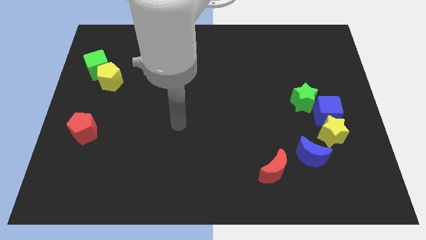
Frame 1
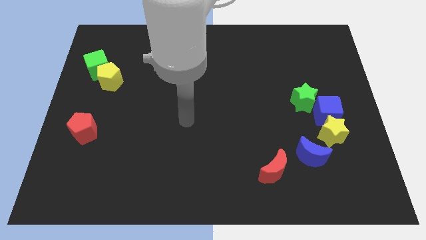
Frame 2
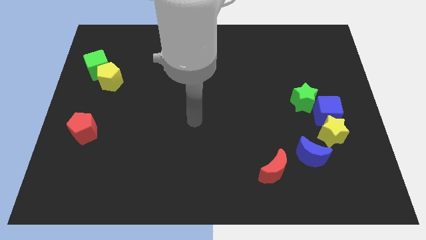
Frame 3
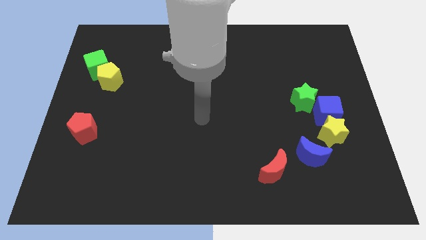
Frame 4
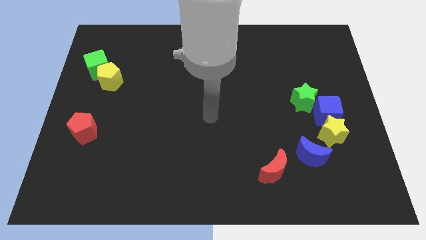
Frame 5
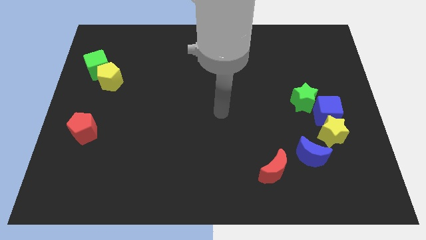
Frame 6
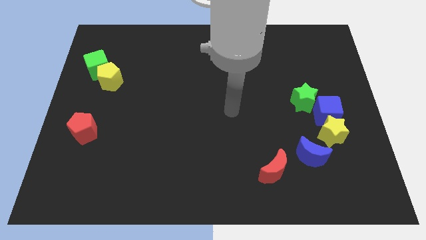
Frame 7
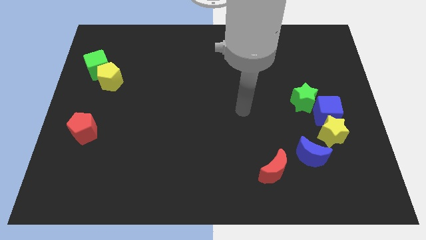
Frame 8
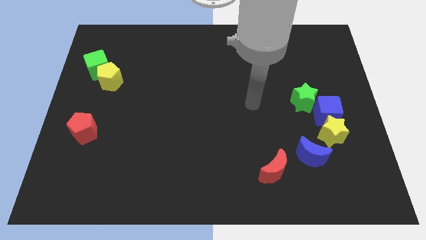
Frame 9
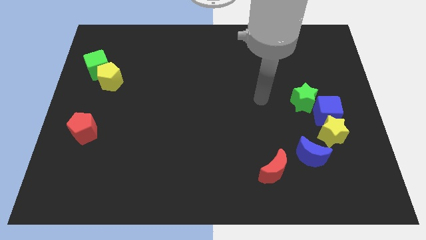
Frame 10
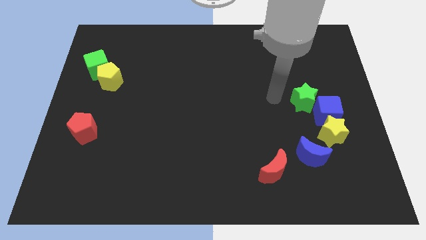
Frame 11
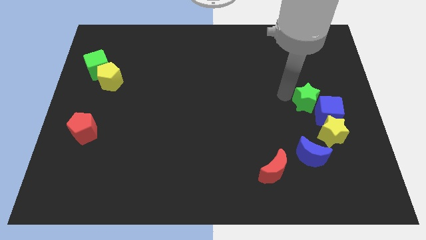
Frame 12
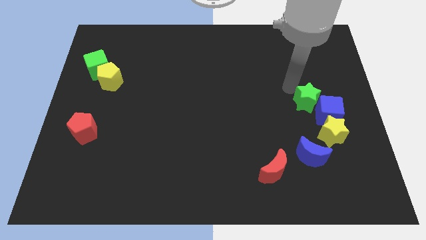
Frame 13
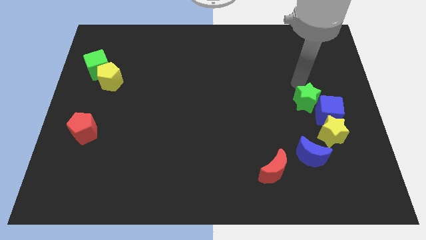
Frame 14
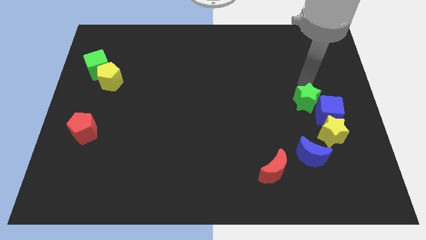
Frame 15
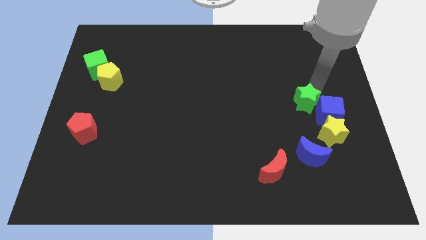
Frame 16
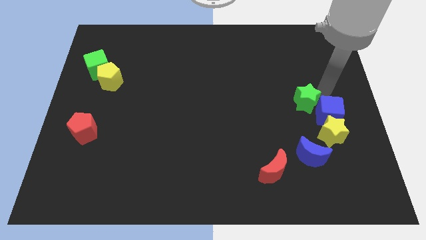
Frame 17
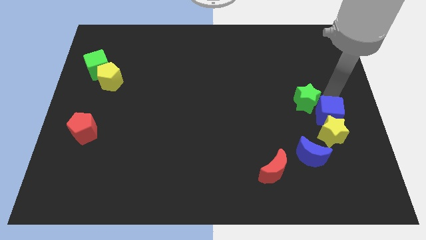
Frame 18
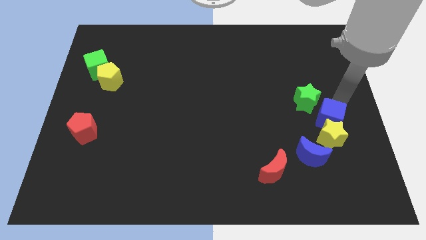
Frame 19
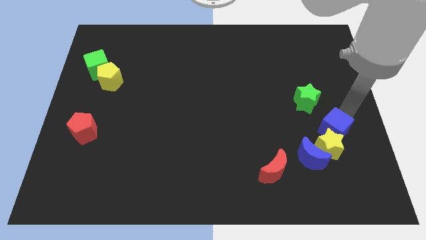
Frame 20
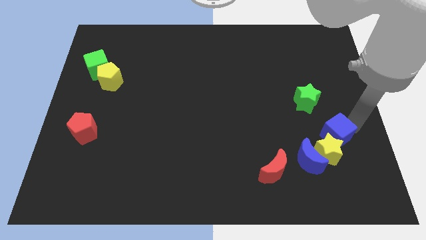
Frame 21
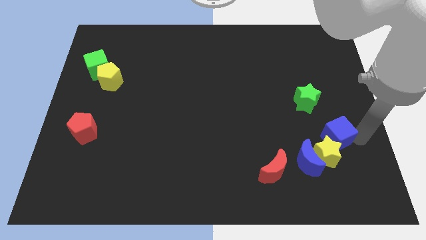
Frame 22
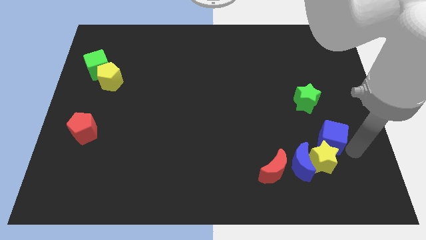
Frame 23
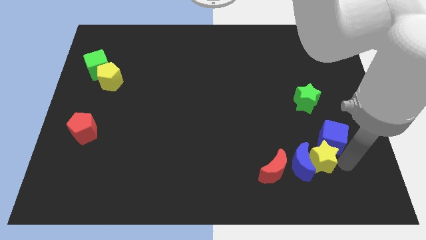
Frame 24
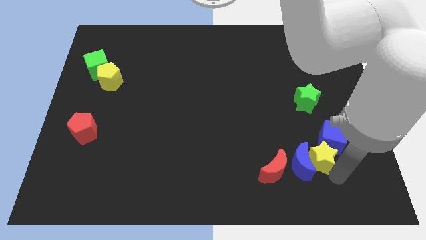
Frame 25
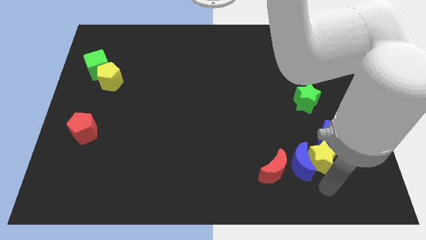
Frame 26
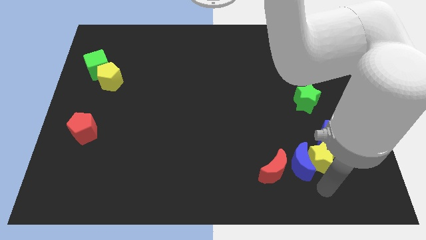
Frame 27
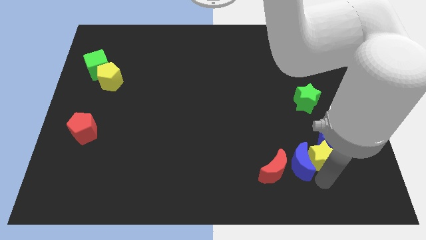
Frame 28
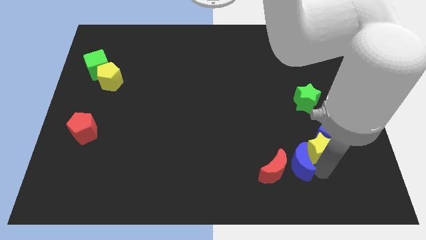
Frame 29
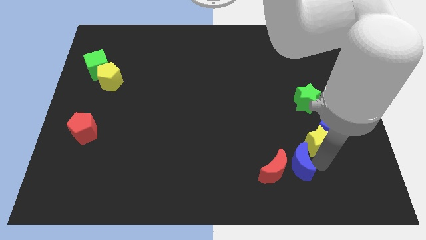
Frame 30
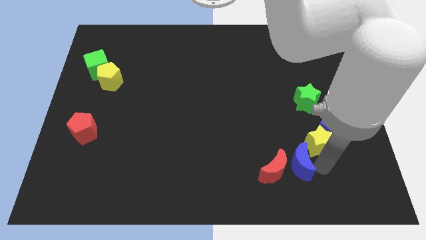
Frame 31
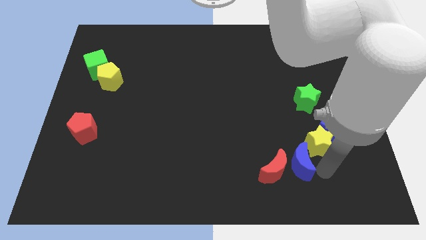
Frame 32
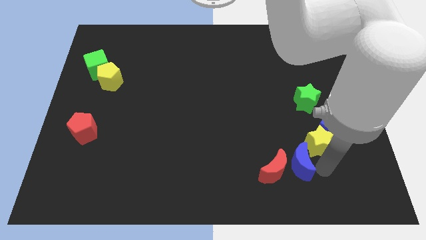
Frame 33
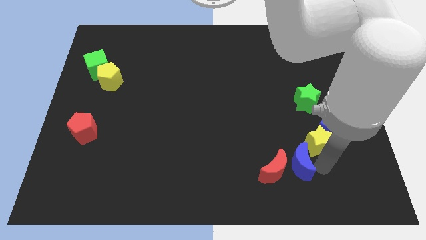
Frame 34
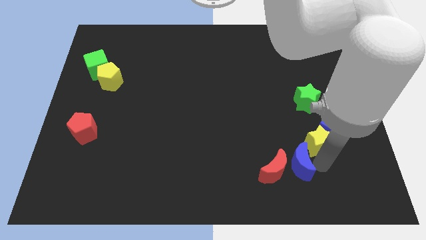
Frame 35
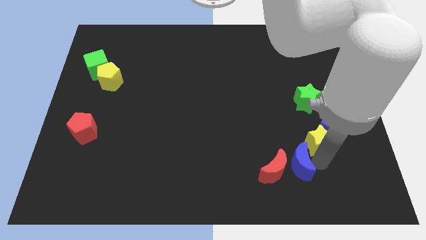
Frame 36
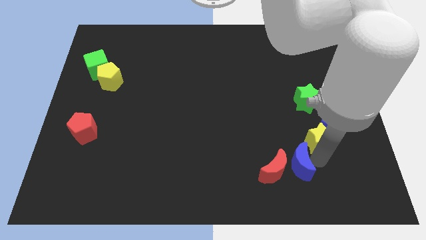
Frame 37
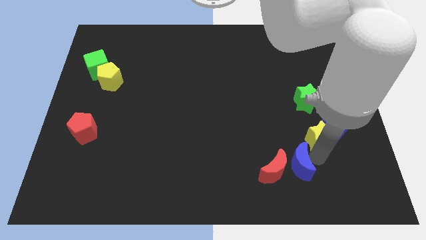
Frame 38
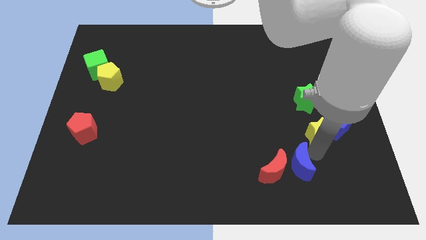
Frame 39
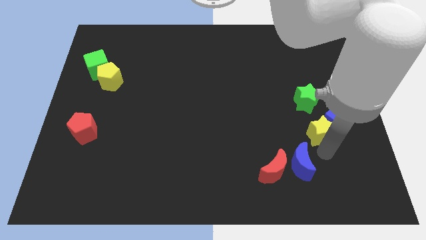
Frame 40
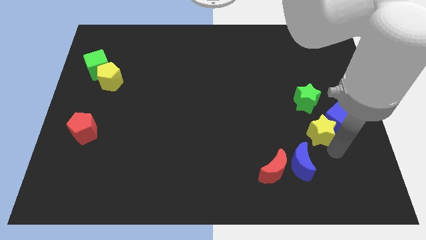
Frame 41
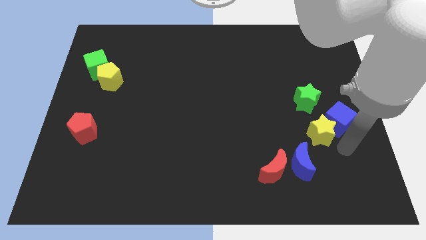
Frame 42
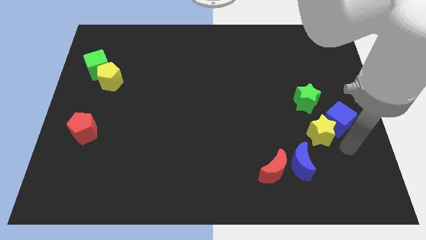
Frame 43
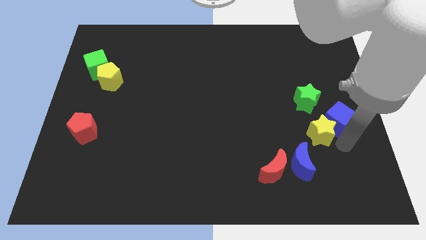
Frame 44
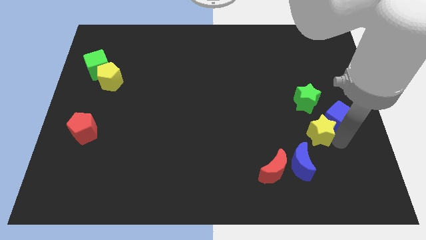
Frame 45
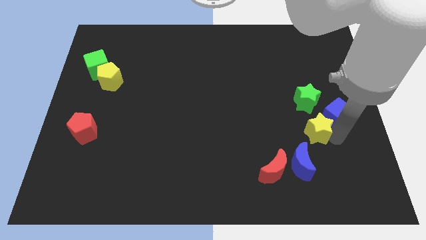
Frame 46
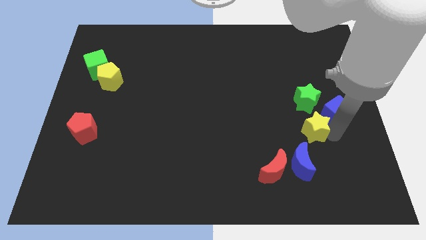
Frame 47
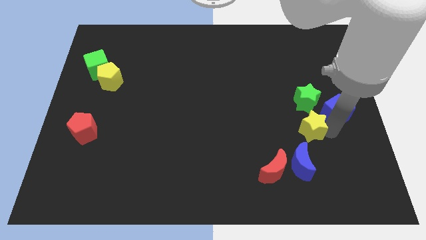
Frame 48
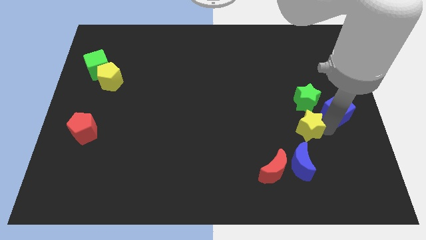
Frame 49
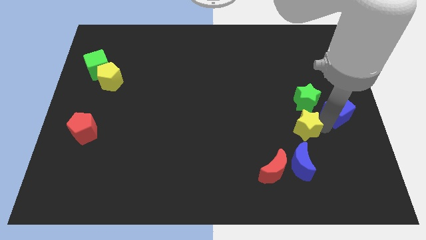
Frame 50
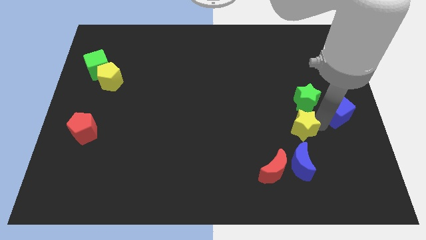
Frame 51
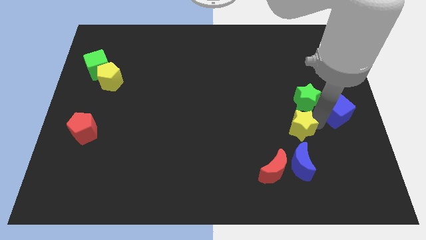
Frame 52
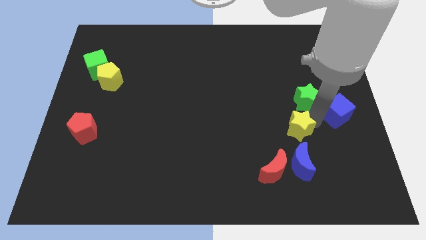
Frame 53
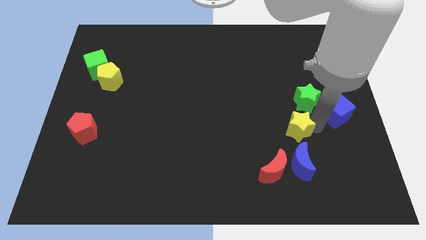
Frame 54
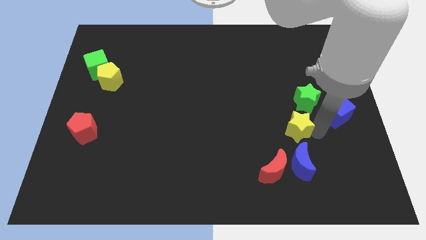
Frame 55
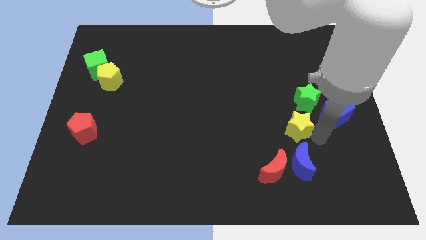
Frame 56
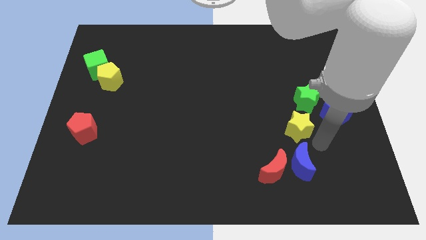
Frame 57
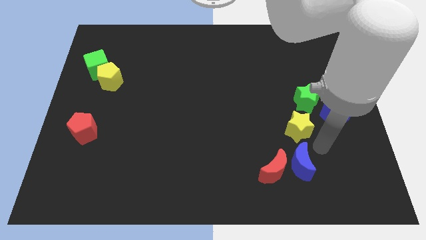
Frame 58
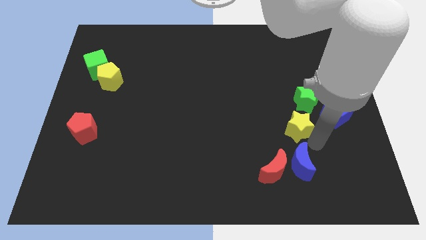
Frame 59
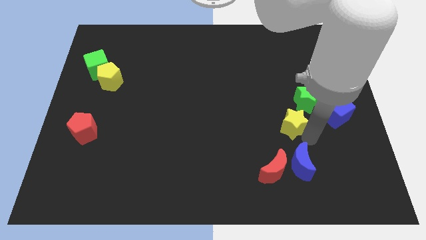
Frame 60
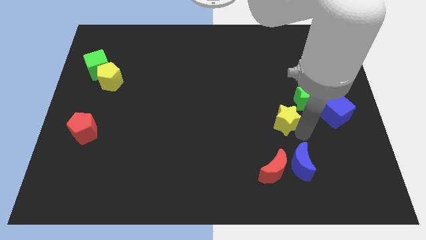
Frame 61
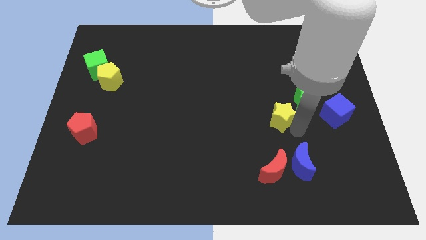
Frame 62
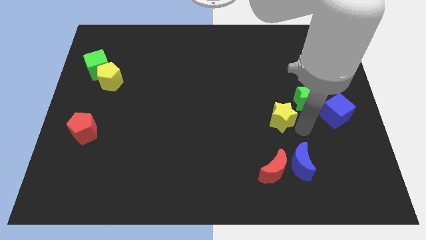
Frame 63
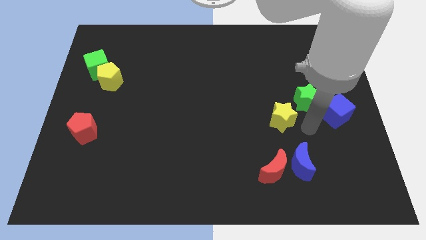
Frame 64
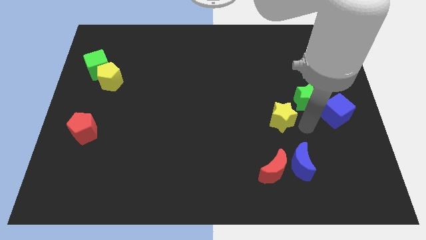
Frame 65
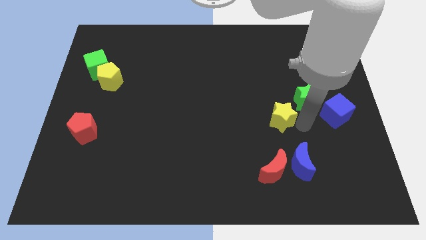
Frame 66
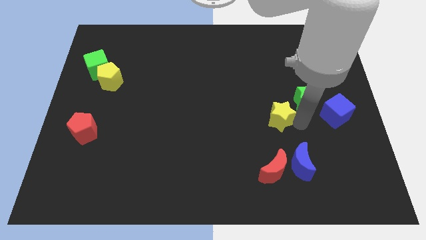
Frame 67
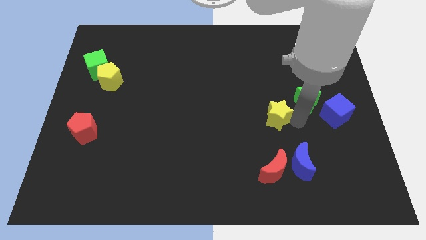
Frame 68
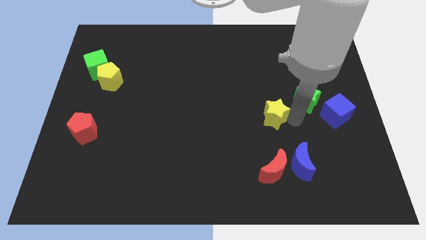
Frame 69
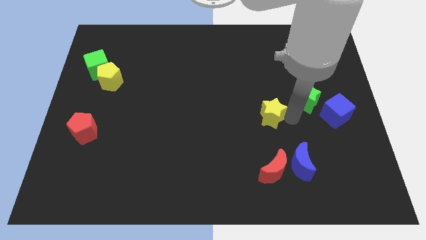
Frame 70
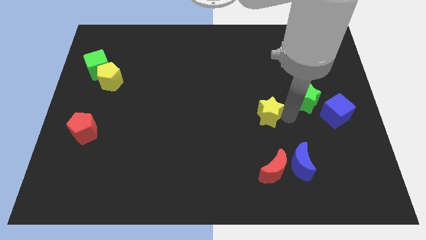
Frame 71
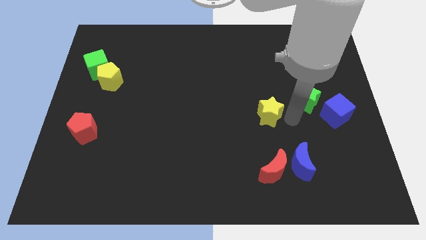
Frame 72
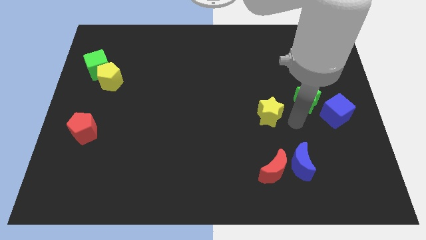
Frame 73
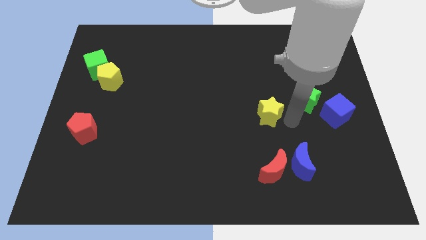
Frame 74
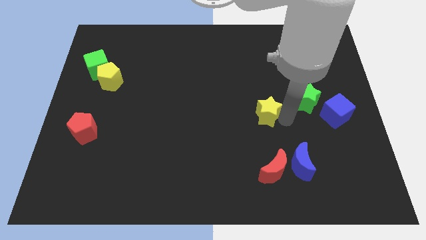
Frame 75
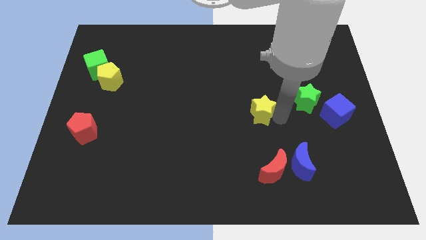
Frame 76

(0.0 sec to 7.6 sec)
put the yellow star to the center of the board
